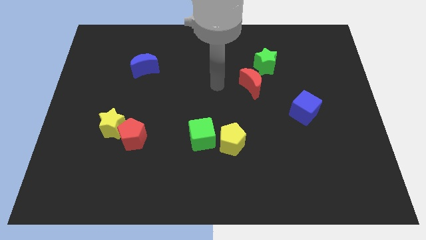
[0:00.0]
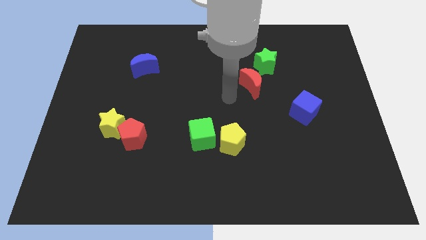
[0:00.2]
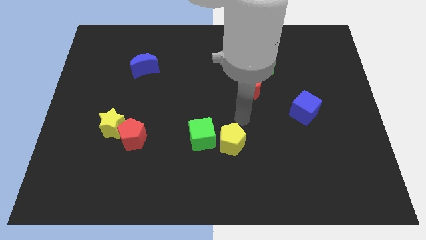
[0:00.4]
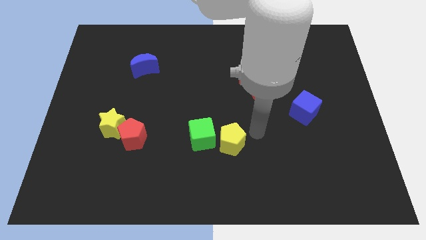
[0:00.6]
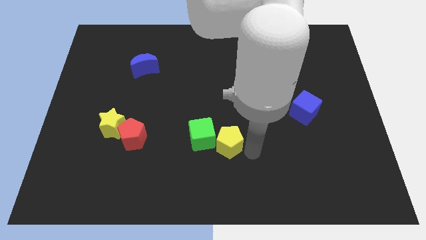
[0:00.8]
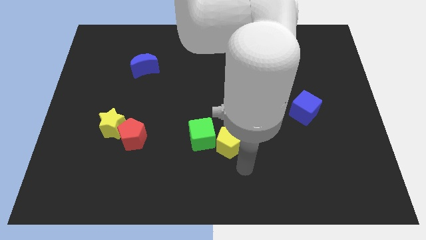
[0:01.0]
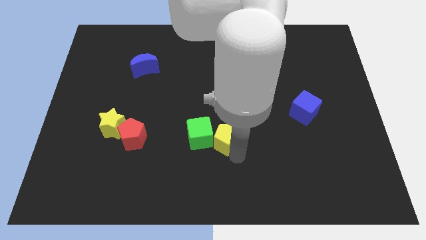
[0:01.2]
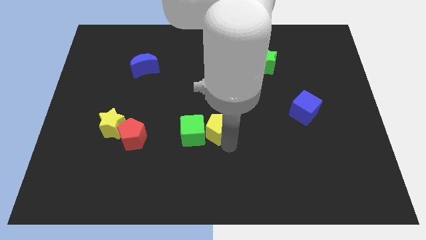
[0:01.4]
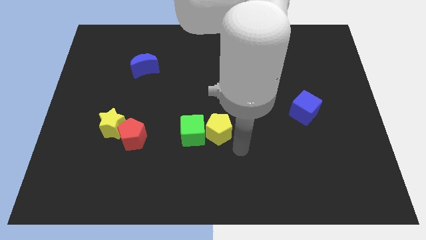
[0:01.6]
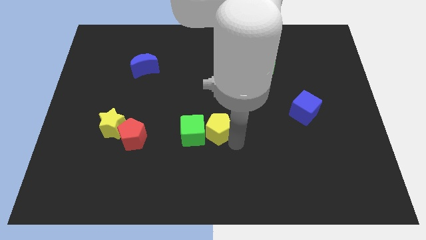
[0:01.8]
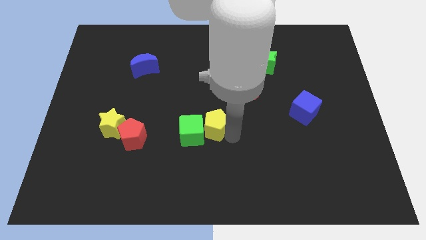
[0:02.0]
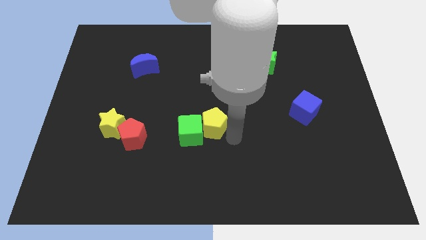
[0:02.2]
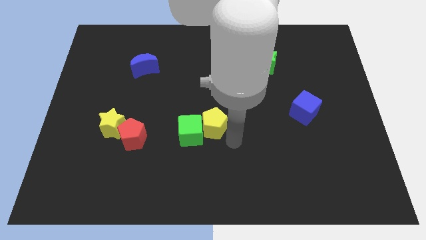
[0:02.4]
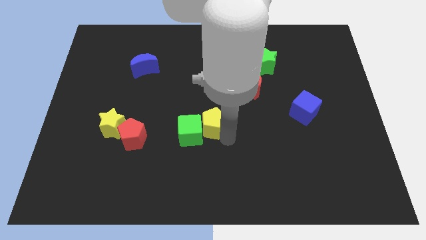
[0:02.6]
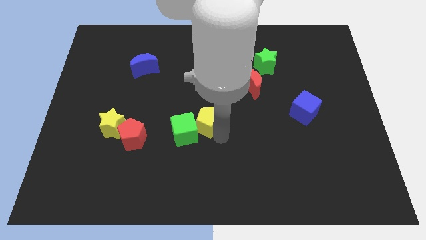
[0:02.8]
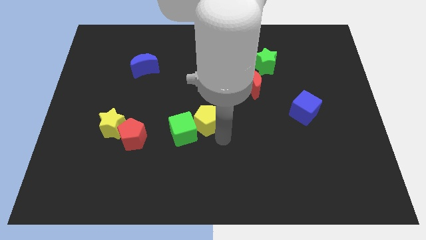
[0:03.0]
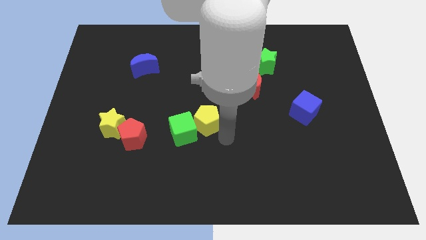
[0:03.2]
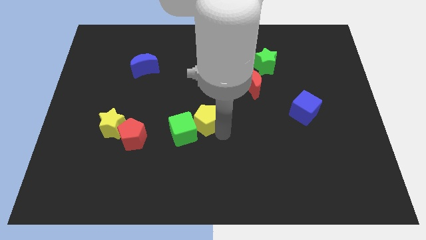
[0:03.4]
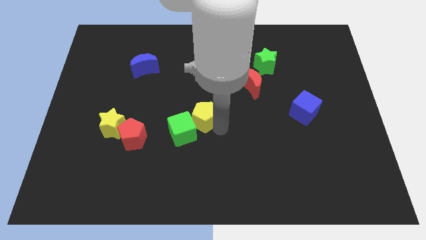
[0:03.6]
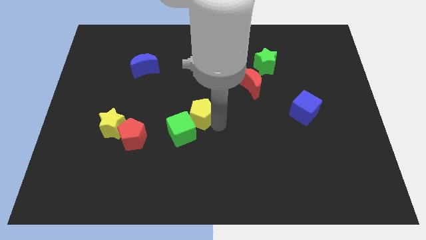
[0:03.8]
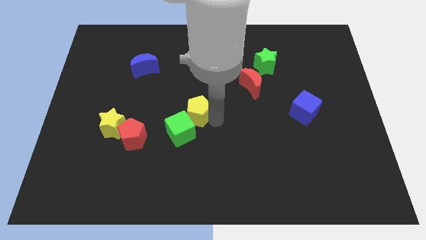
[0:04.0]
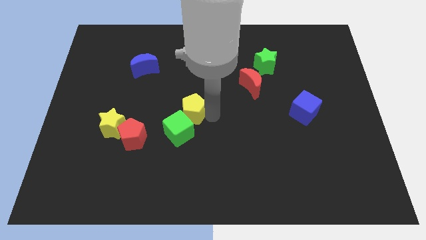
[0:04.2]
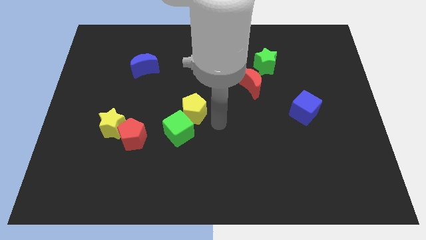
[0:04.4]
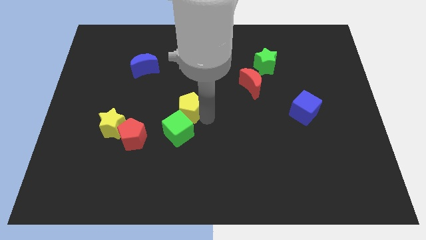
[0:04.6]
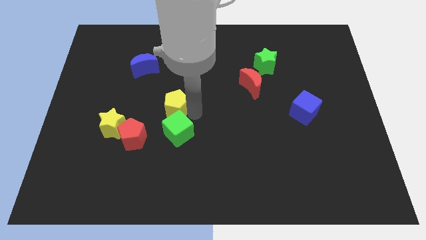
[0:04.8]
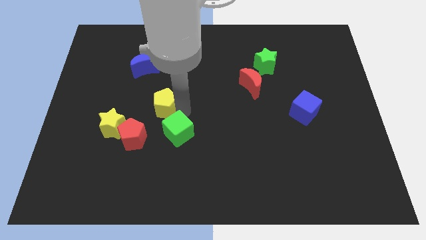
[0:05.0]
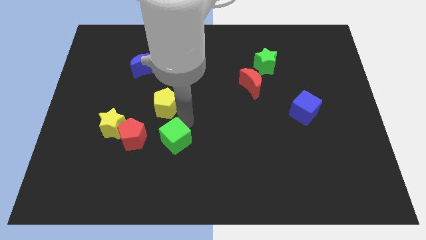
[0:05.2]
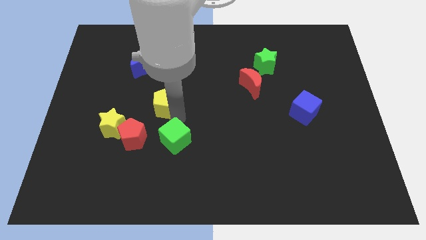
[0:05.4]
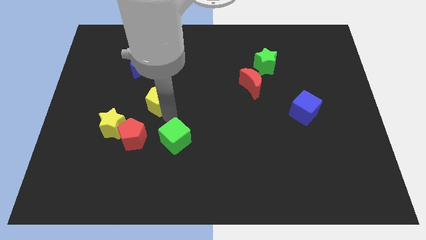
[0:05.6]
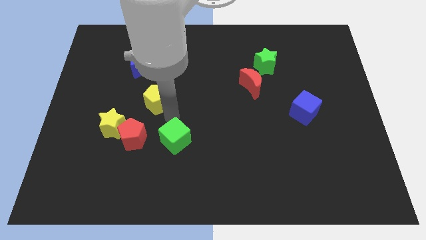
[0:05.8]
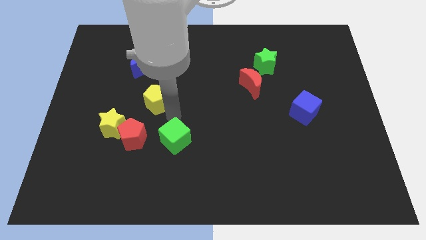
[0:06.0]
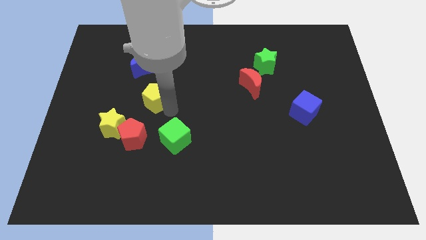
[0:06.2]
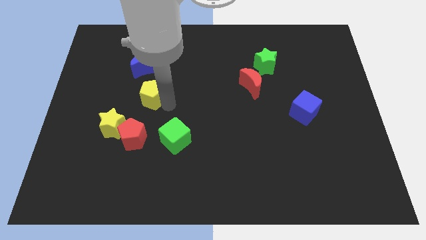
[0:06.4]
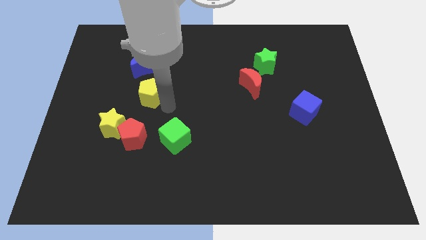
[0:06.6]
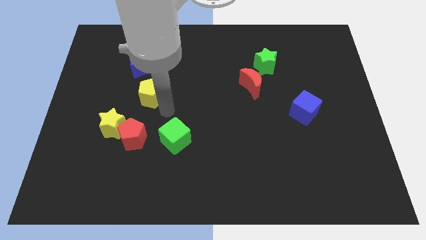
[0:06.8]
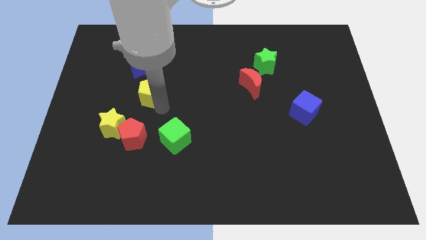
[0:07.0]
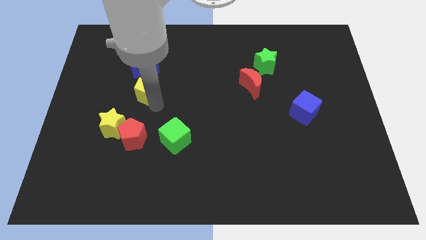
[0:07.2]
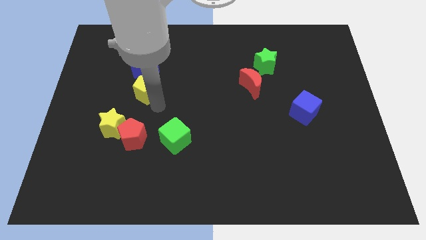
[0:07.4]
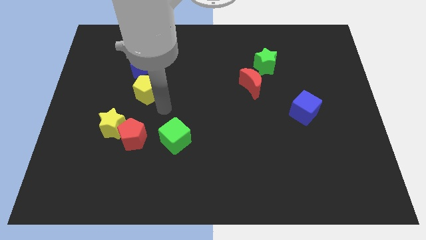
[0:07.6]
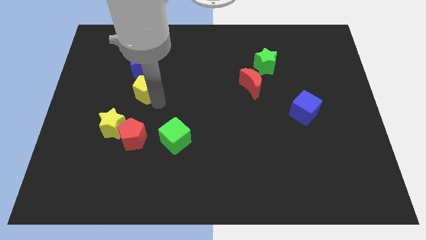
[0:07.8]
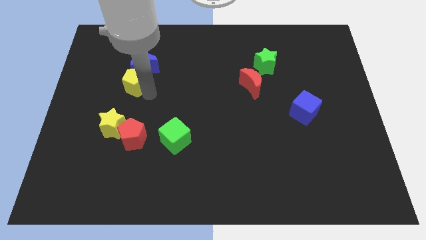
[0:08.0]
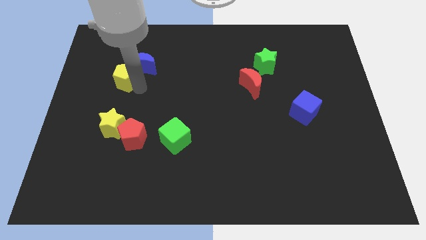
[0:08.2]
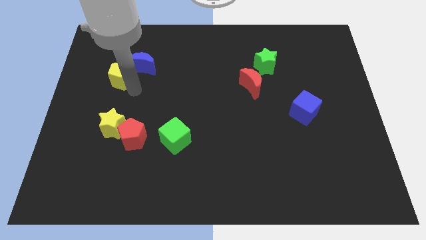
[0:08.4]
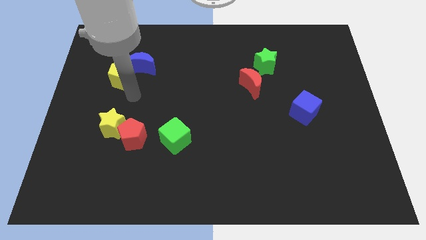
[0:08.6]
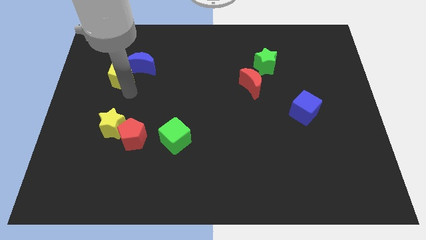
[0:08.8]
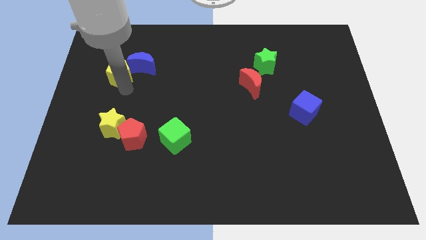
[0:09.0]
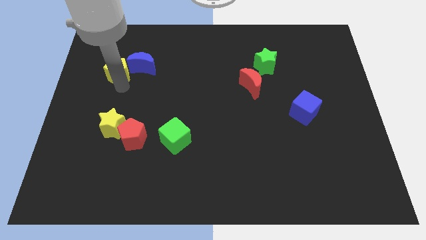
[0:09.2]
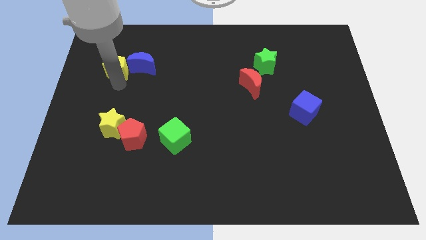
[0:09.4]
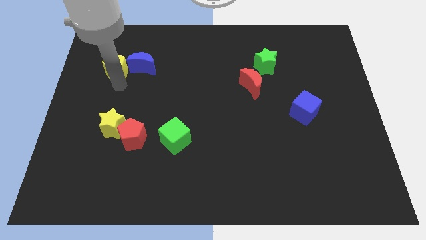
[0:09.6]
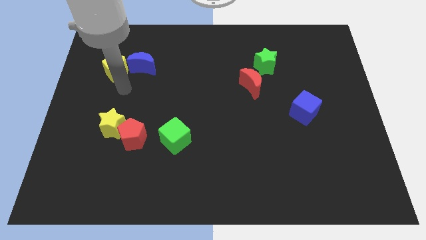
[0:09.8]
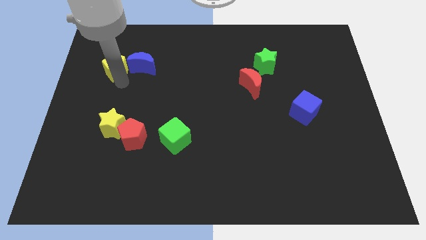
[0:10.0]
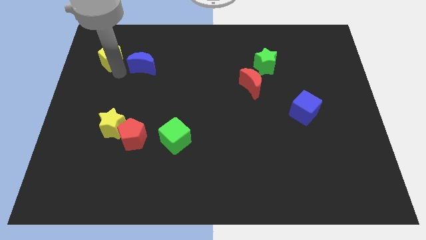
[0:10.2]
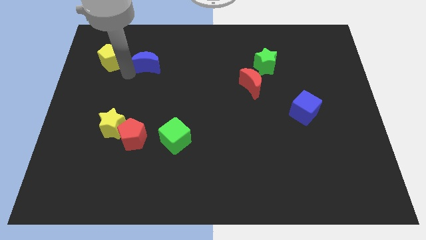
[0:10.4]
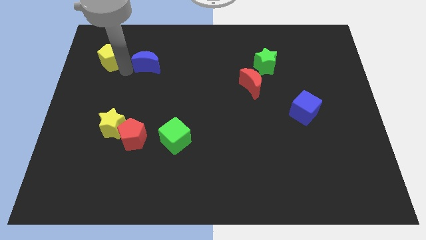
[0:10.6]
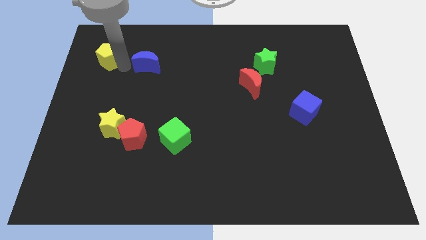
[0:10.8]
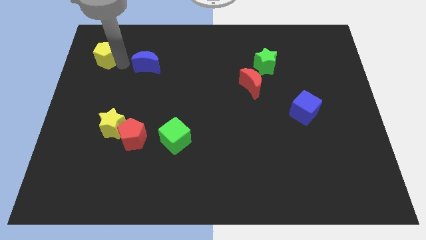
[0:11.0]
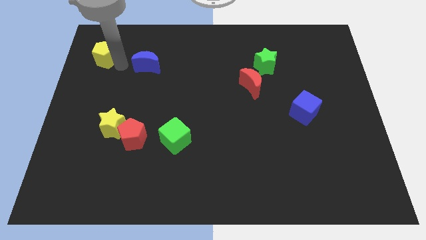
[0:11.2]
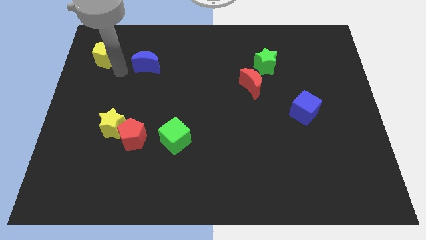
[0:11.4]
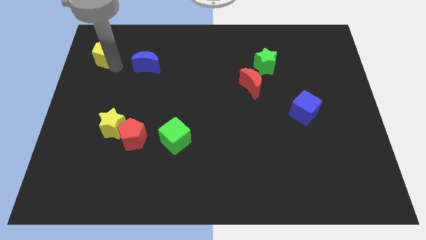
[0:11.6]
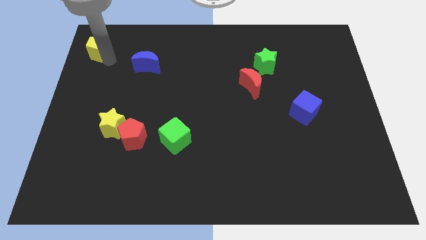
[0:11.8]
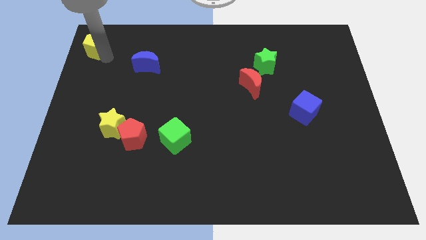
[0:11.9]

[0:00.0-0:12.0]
slide the yellow pentagon to the upper left corner
